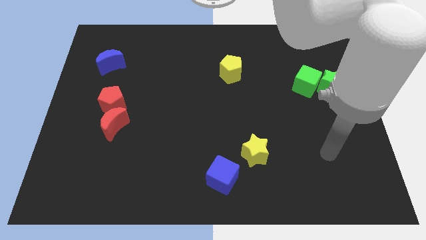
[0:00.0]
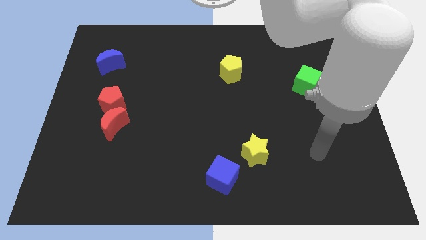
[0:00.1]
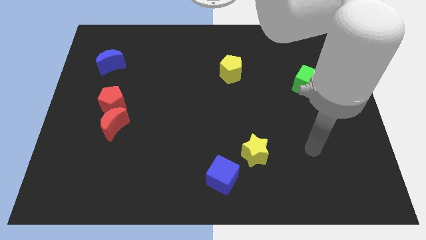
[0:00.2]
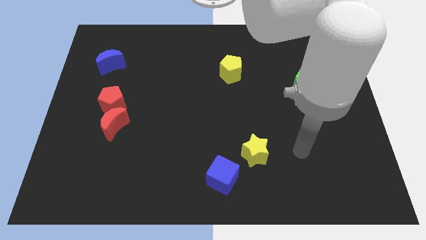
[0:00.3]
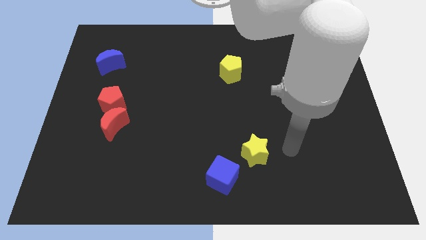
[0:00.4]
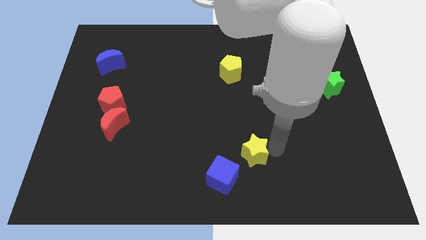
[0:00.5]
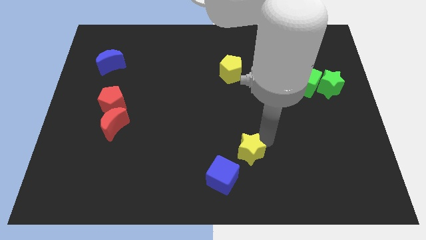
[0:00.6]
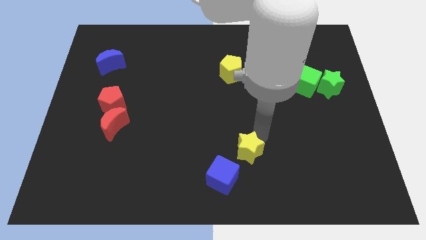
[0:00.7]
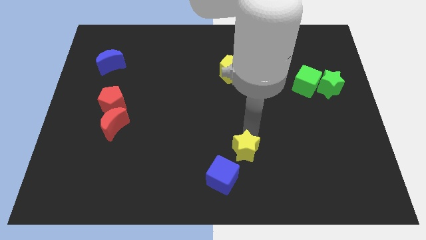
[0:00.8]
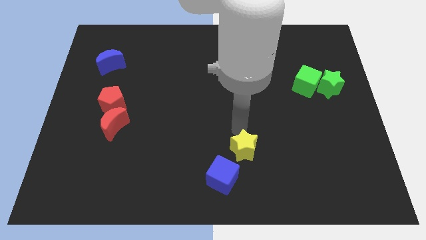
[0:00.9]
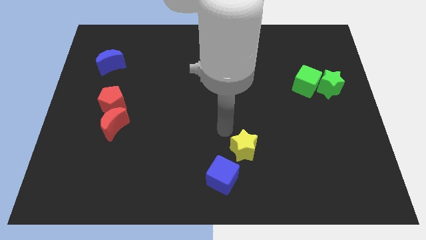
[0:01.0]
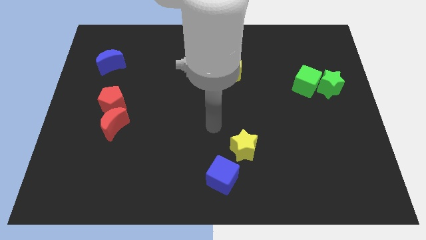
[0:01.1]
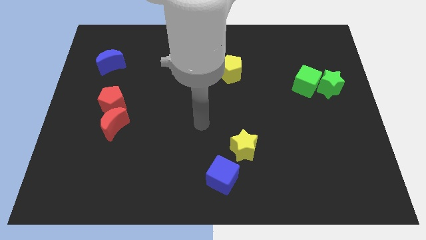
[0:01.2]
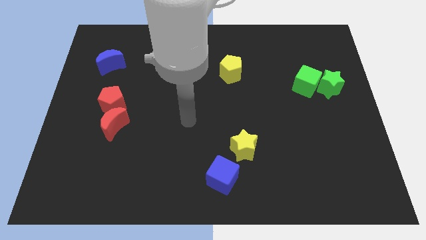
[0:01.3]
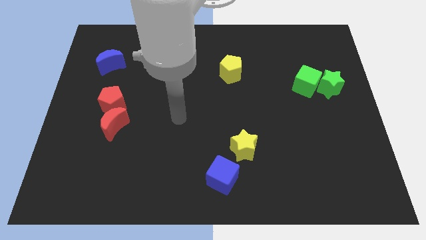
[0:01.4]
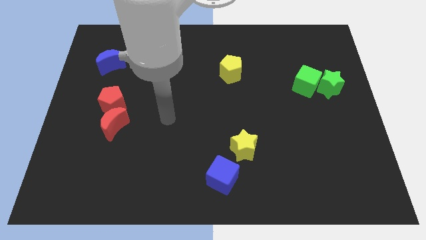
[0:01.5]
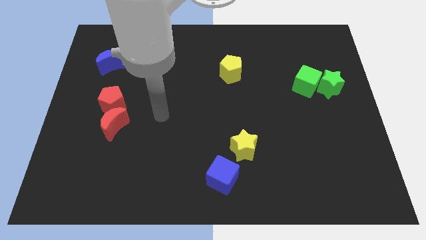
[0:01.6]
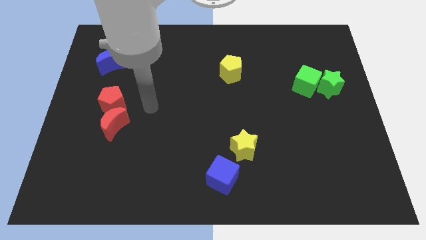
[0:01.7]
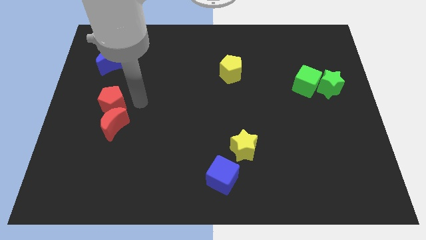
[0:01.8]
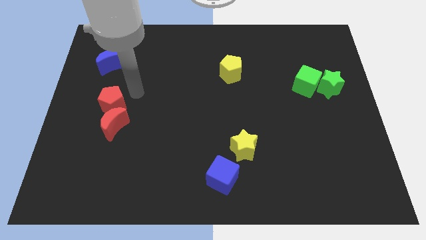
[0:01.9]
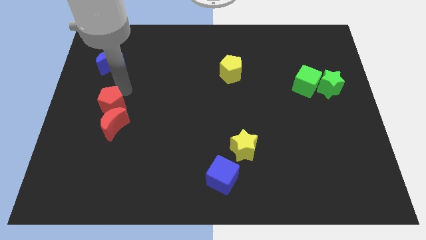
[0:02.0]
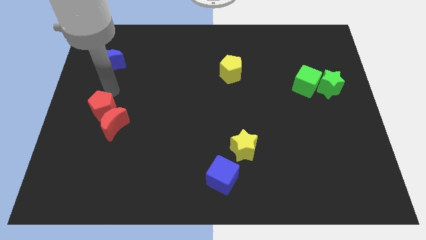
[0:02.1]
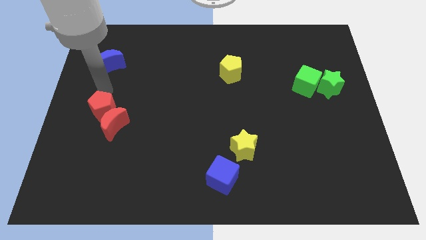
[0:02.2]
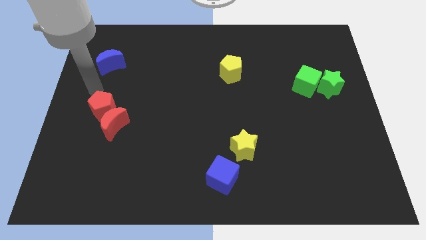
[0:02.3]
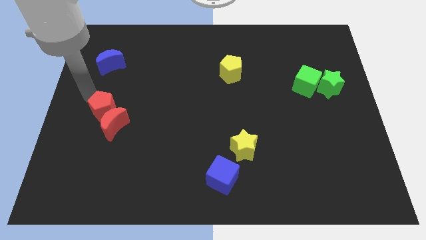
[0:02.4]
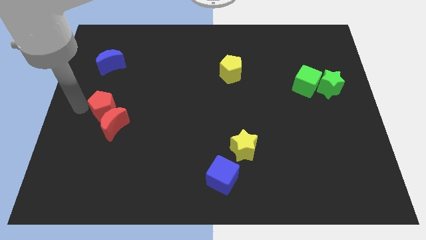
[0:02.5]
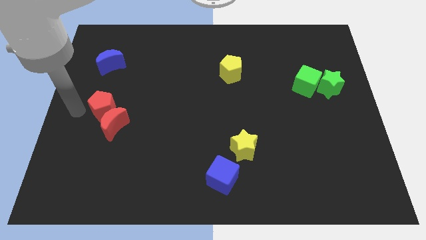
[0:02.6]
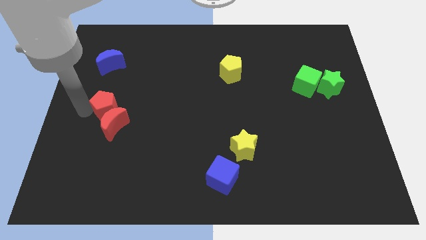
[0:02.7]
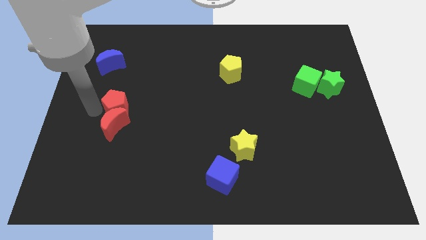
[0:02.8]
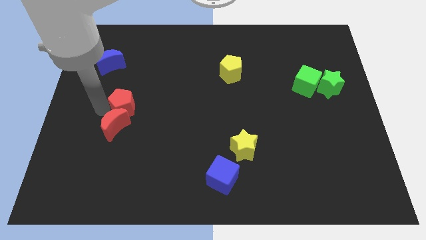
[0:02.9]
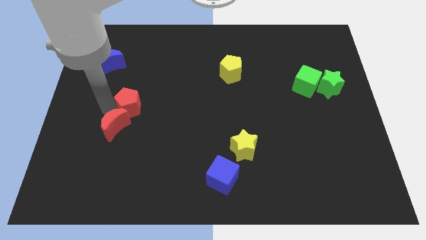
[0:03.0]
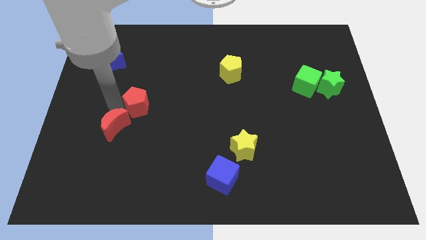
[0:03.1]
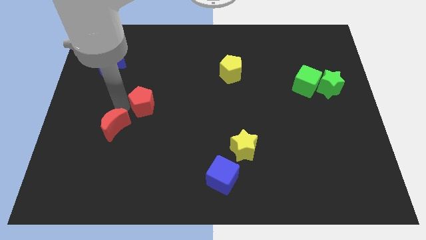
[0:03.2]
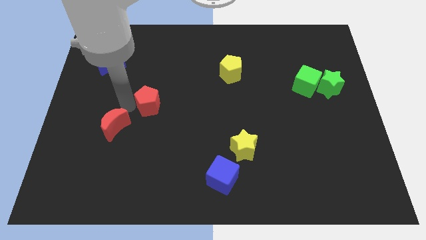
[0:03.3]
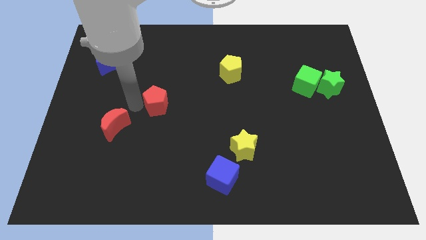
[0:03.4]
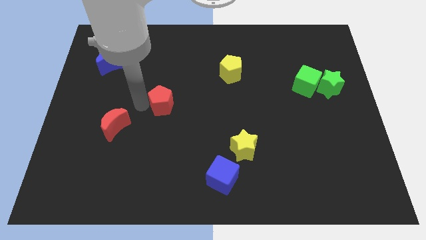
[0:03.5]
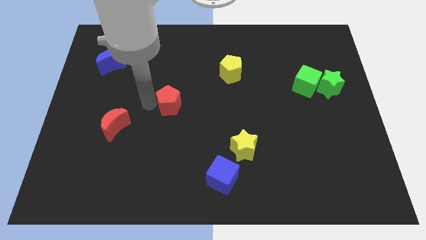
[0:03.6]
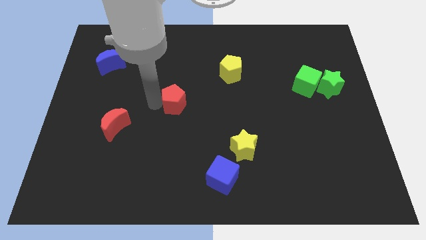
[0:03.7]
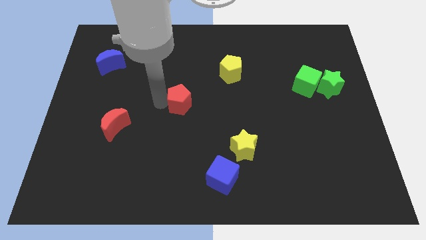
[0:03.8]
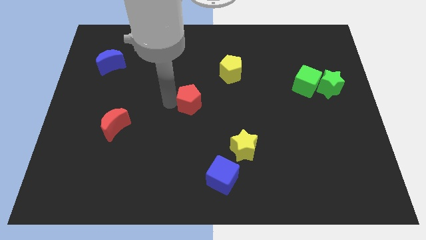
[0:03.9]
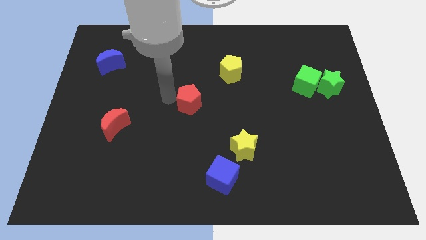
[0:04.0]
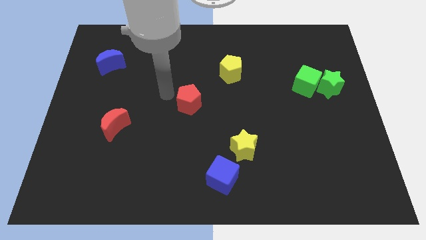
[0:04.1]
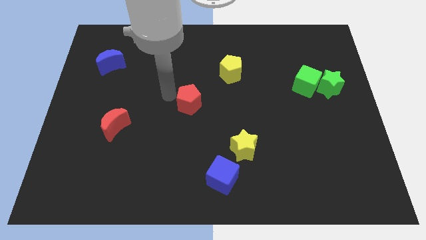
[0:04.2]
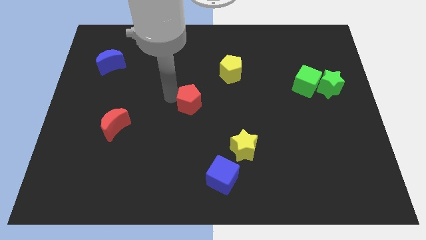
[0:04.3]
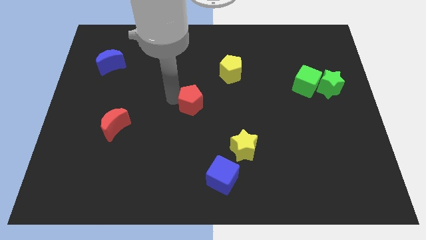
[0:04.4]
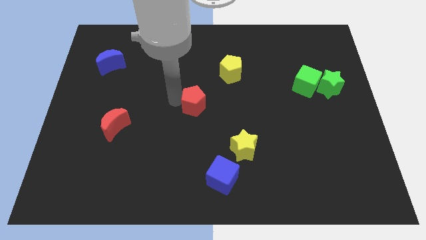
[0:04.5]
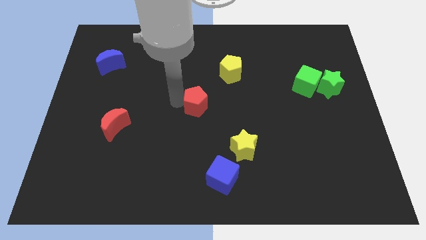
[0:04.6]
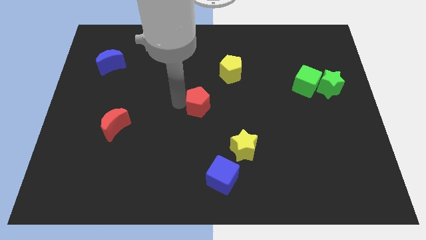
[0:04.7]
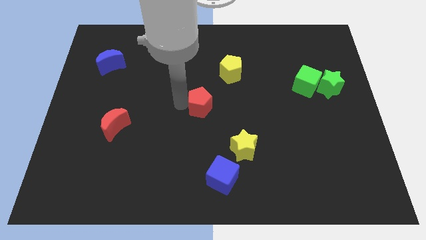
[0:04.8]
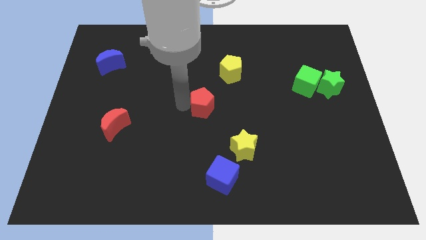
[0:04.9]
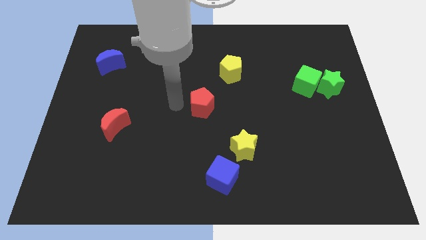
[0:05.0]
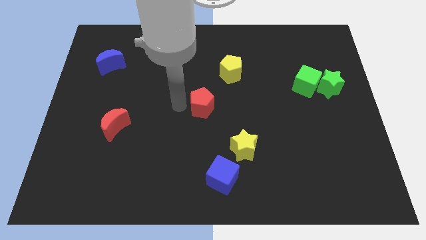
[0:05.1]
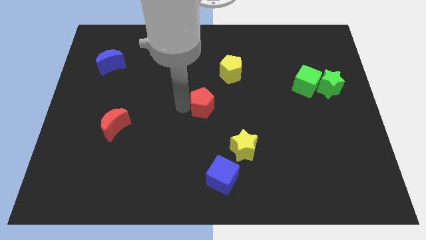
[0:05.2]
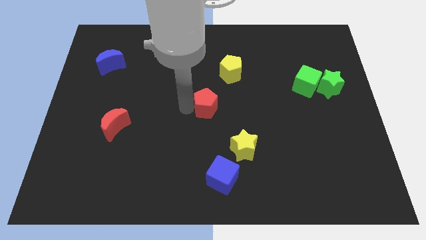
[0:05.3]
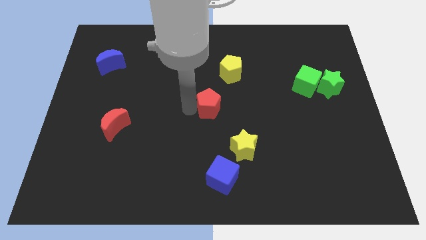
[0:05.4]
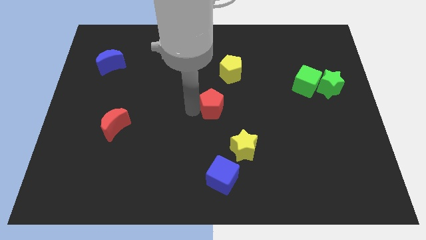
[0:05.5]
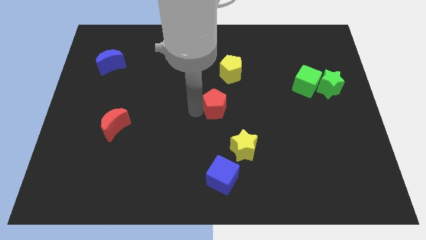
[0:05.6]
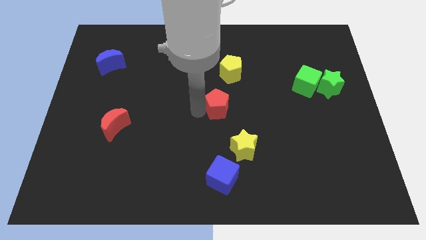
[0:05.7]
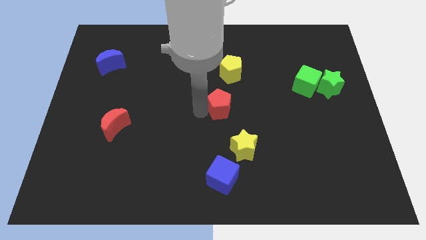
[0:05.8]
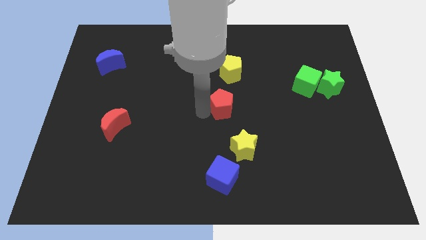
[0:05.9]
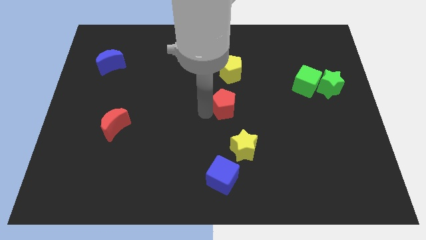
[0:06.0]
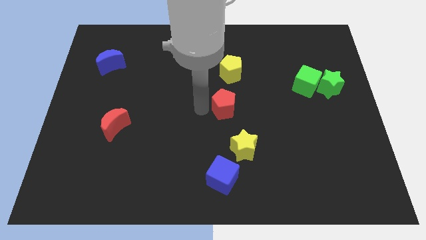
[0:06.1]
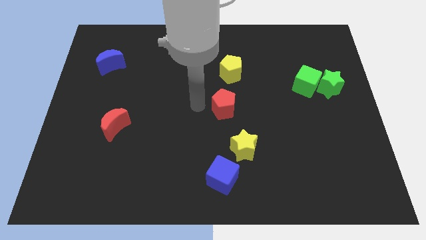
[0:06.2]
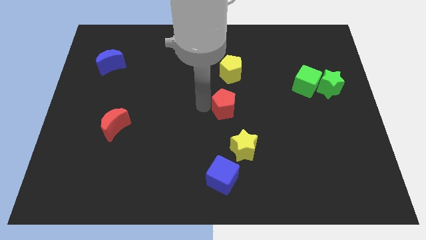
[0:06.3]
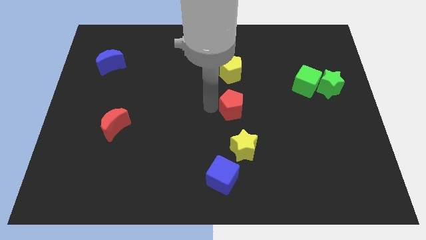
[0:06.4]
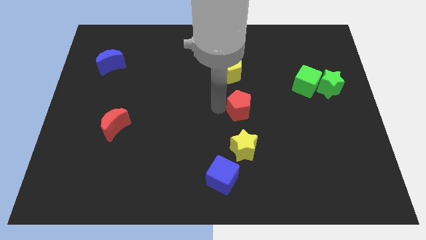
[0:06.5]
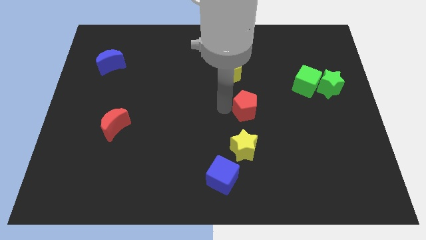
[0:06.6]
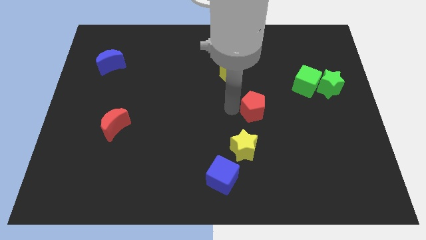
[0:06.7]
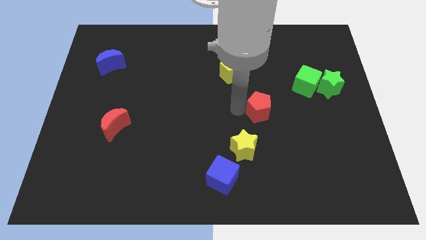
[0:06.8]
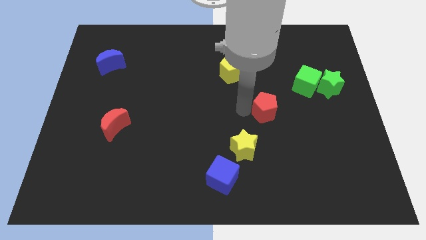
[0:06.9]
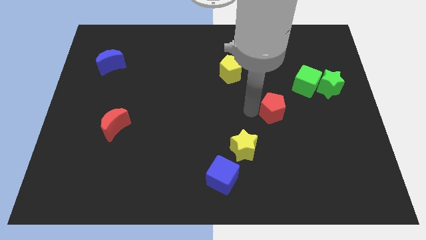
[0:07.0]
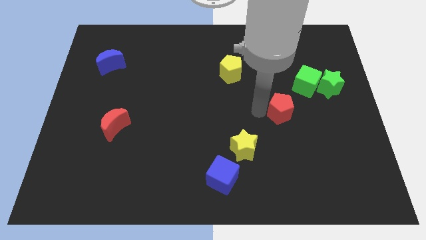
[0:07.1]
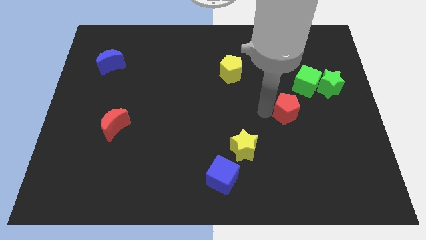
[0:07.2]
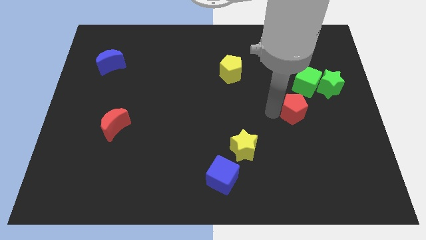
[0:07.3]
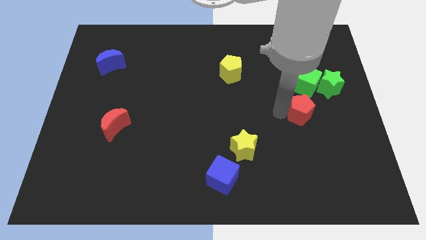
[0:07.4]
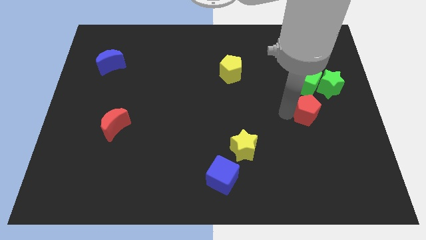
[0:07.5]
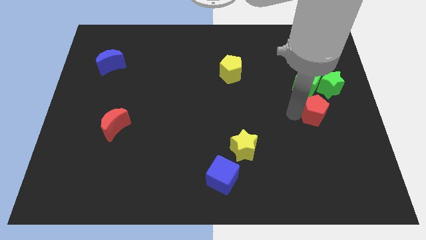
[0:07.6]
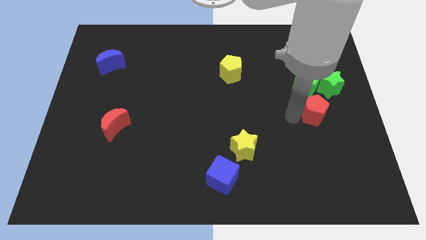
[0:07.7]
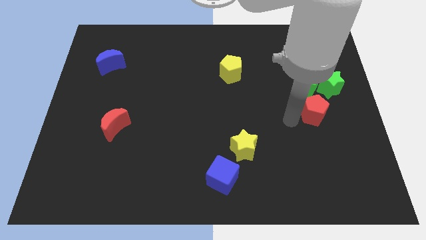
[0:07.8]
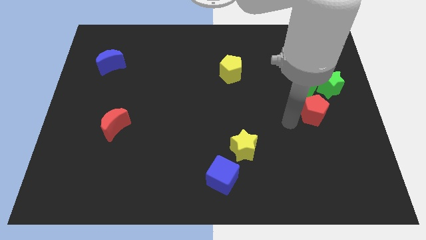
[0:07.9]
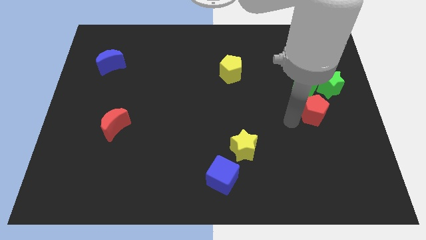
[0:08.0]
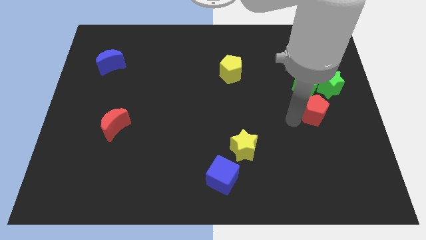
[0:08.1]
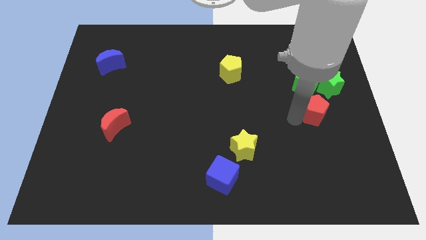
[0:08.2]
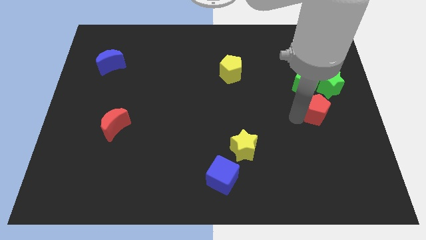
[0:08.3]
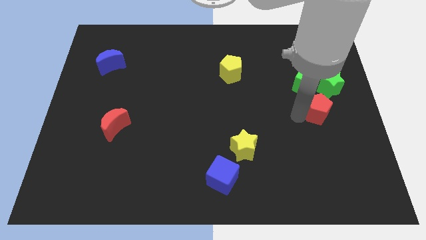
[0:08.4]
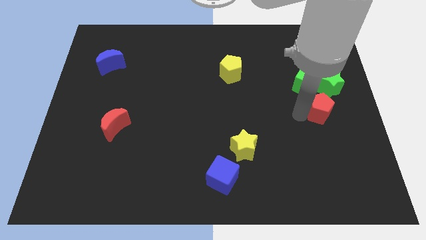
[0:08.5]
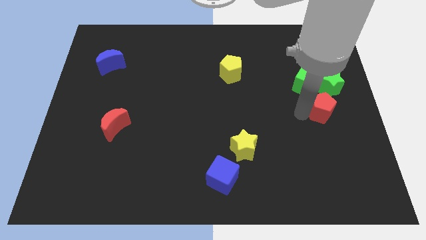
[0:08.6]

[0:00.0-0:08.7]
push the red pentagon to the right side of the board
